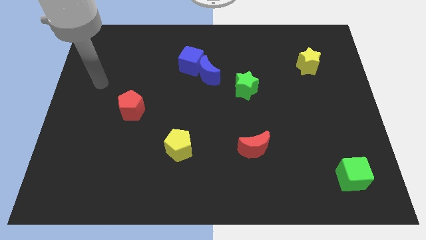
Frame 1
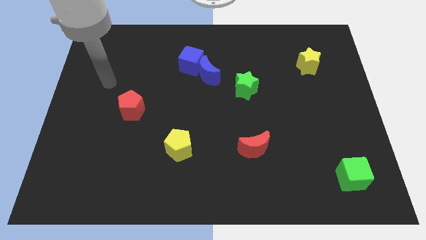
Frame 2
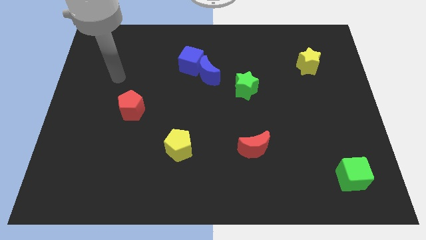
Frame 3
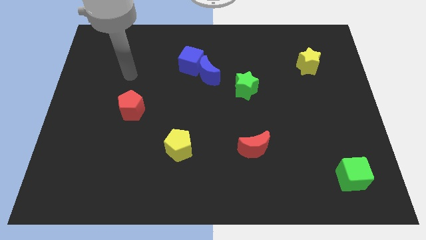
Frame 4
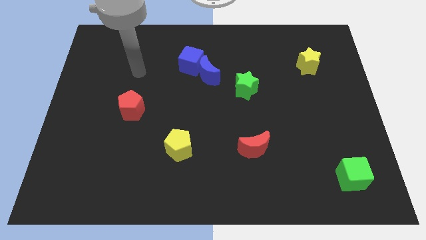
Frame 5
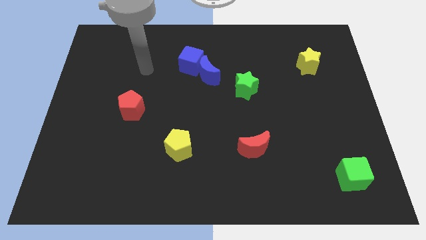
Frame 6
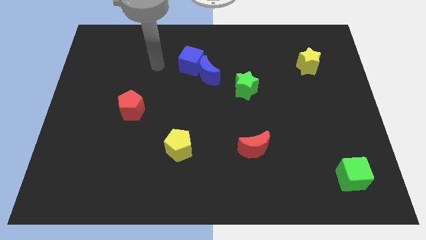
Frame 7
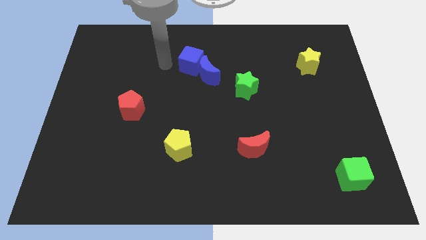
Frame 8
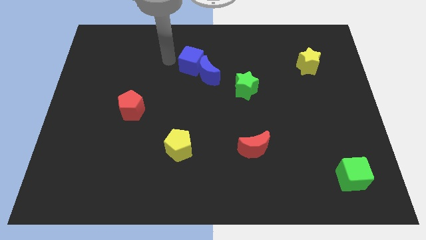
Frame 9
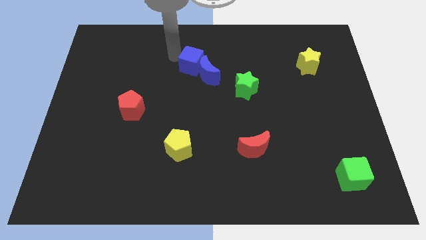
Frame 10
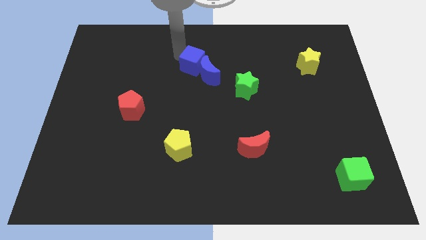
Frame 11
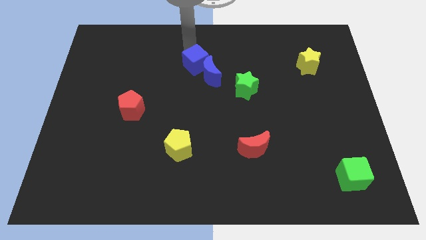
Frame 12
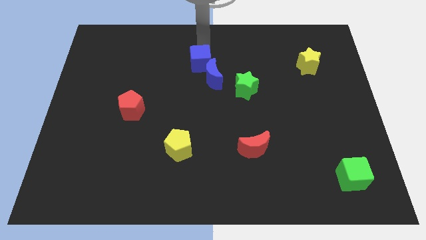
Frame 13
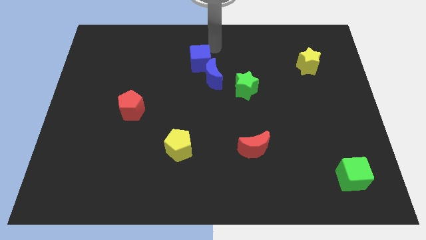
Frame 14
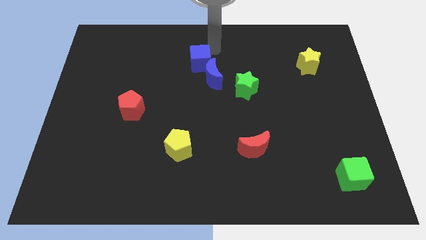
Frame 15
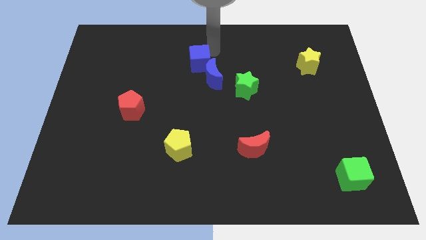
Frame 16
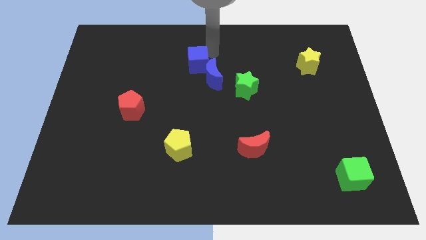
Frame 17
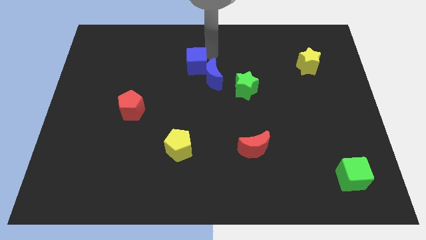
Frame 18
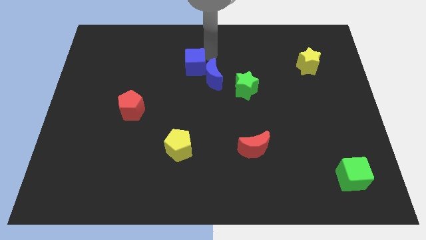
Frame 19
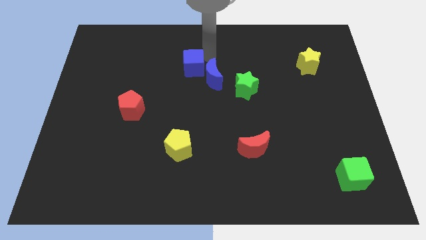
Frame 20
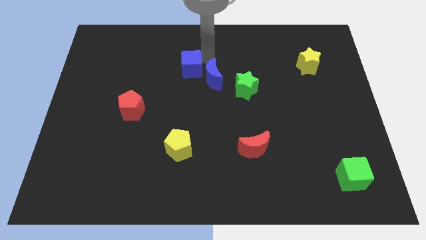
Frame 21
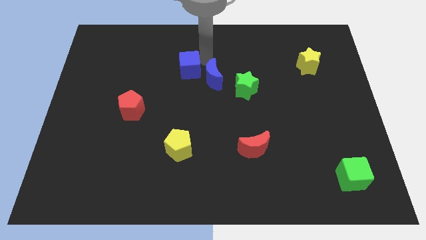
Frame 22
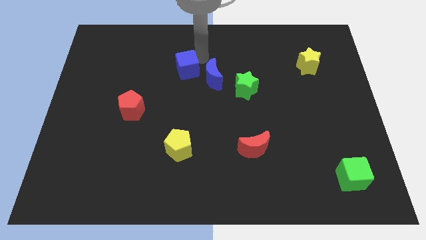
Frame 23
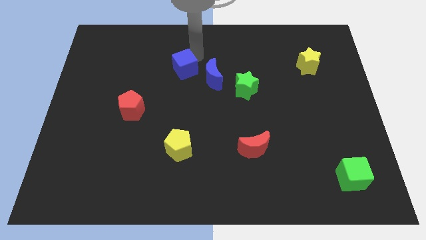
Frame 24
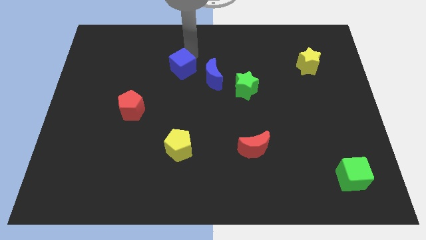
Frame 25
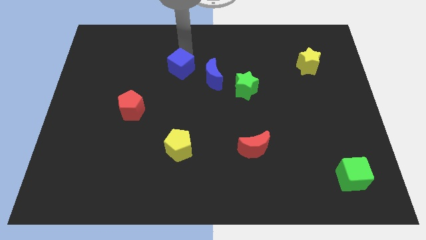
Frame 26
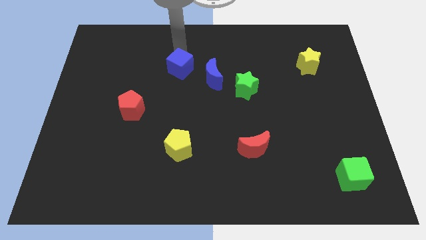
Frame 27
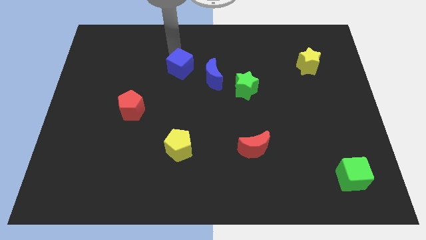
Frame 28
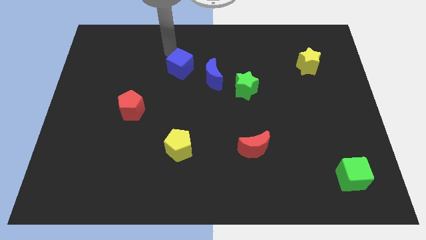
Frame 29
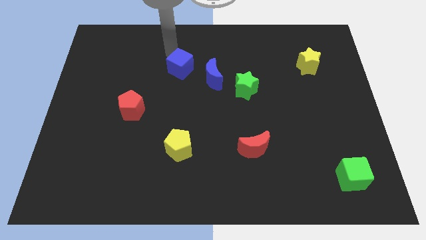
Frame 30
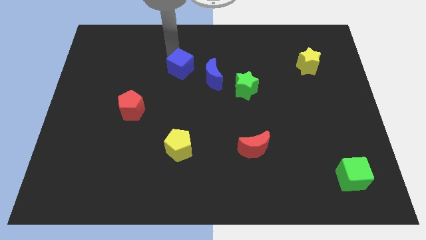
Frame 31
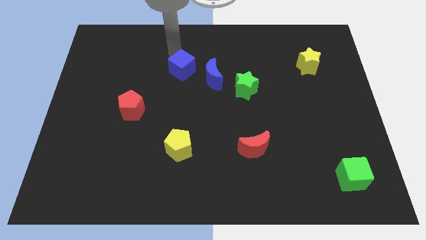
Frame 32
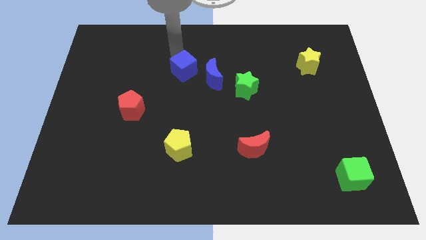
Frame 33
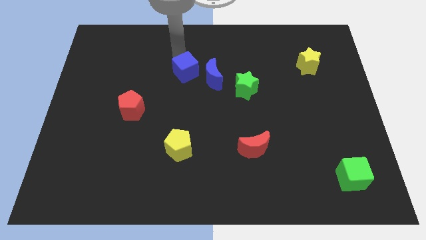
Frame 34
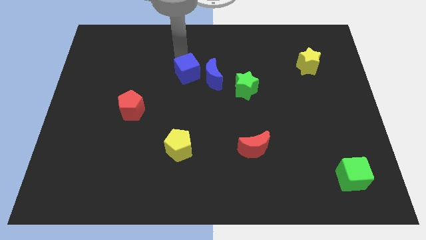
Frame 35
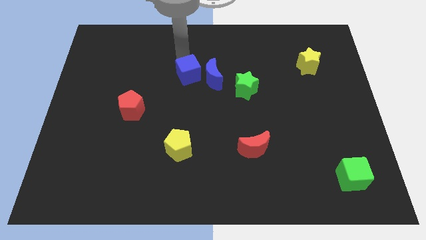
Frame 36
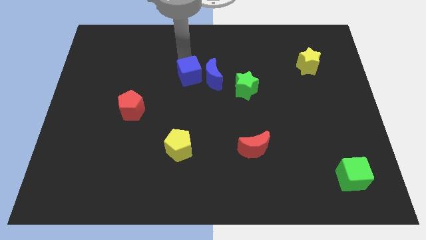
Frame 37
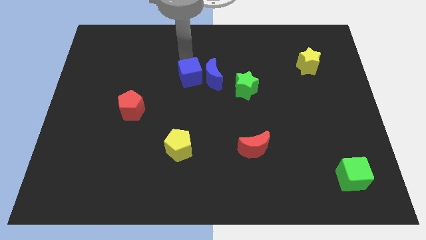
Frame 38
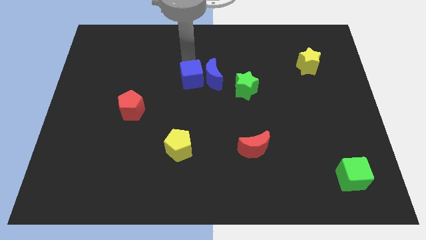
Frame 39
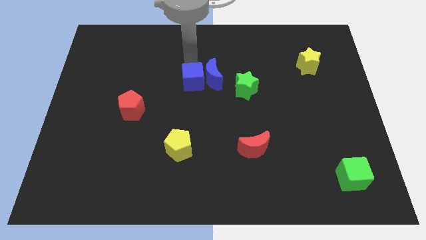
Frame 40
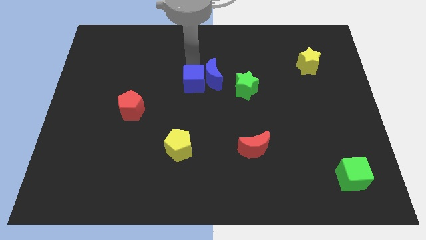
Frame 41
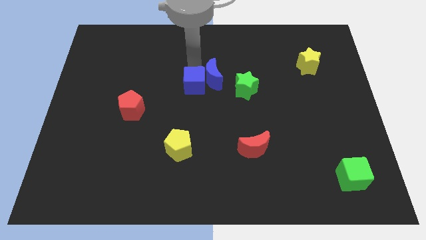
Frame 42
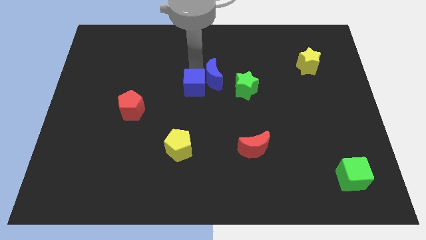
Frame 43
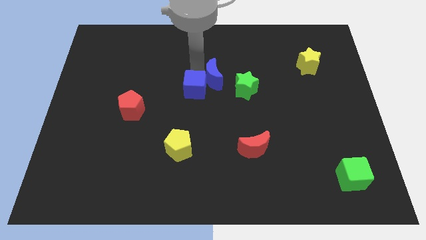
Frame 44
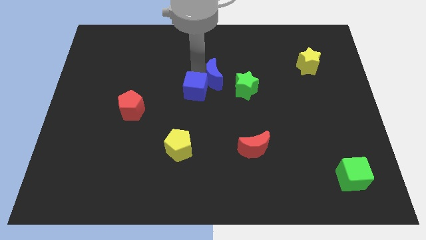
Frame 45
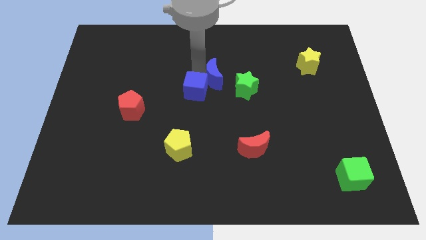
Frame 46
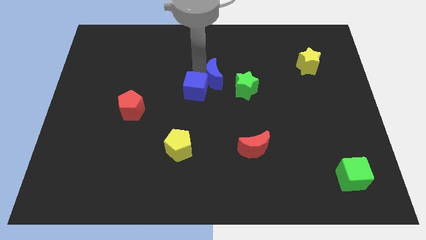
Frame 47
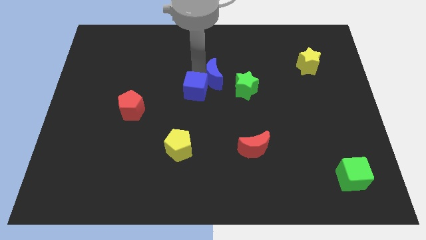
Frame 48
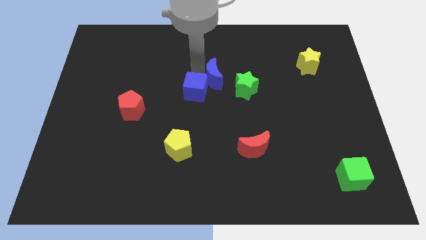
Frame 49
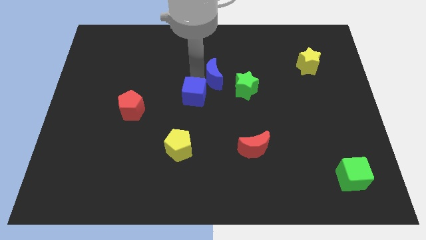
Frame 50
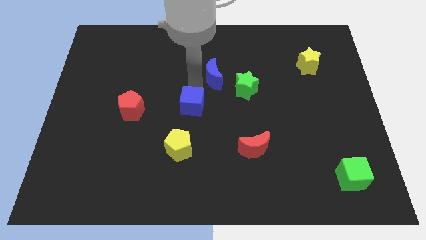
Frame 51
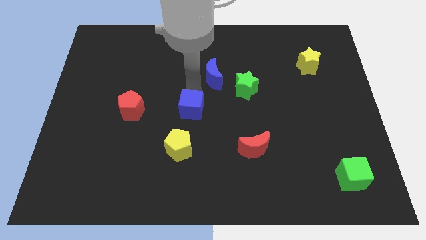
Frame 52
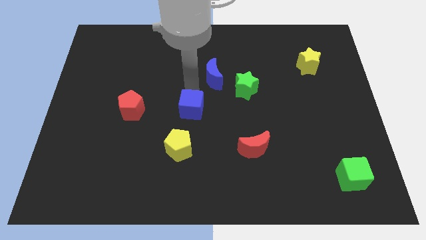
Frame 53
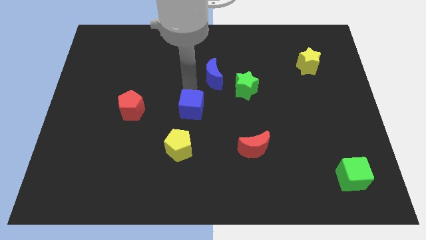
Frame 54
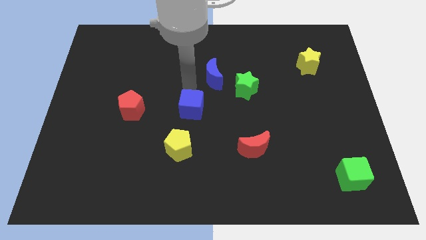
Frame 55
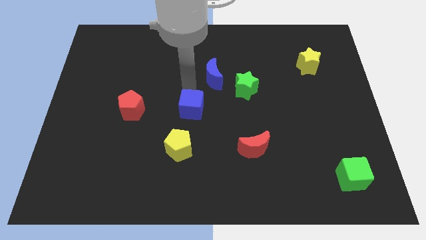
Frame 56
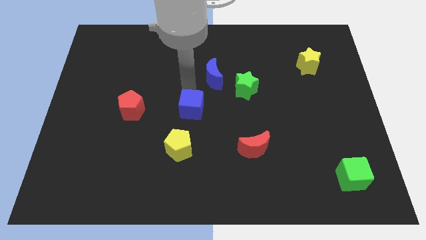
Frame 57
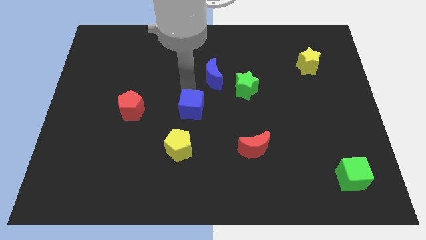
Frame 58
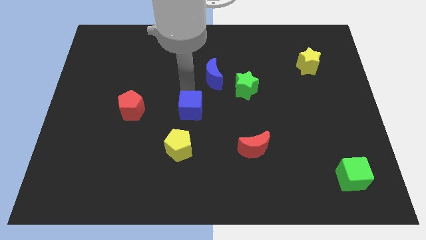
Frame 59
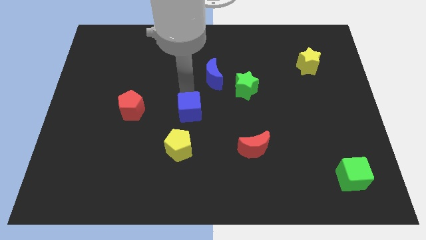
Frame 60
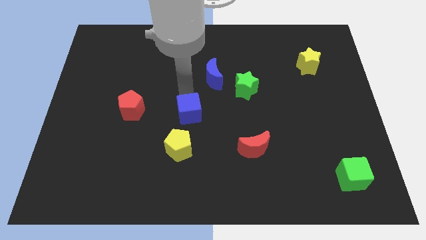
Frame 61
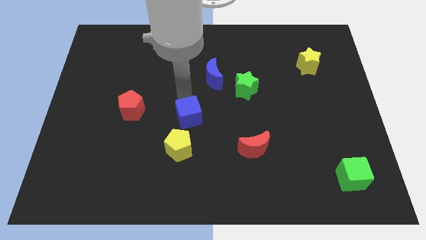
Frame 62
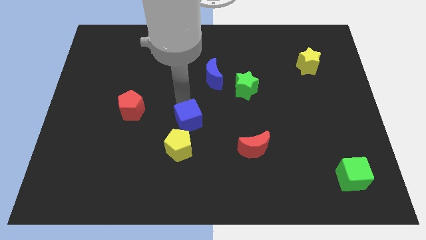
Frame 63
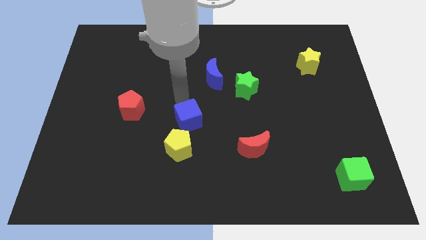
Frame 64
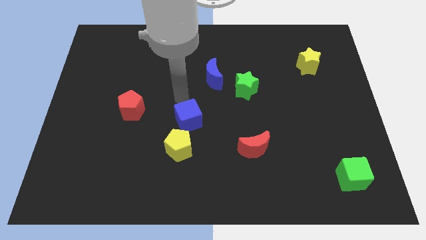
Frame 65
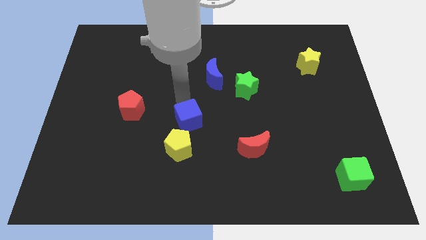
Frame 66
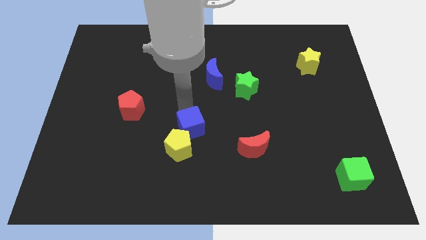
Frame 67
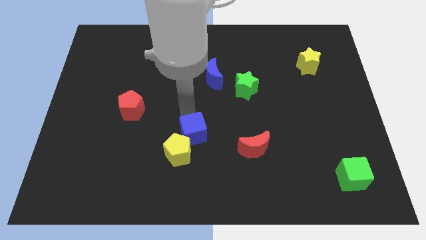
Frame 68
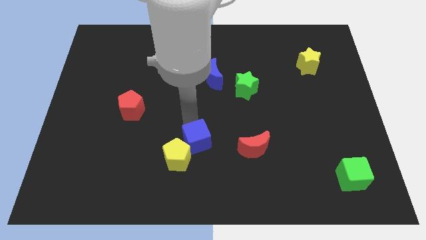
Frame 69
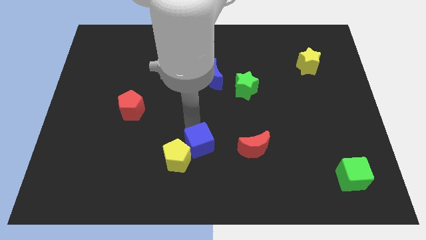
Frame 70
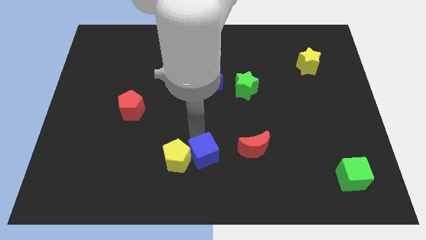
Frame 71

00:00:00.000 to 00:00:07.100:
put the blue cube to the bottom right of the yellow pentagon

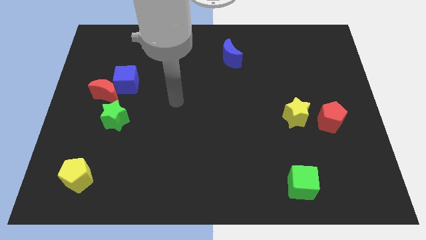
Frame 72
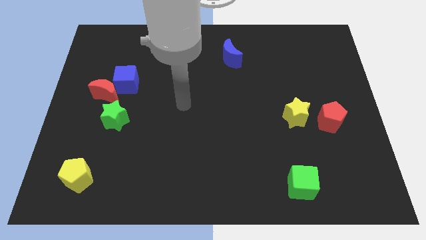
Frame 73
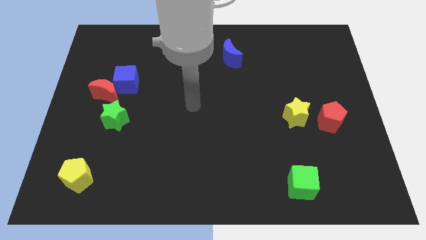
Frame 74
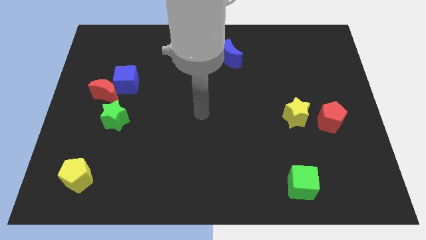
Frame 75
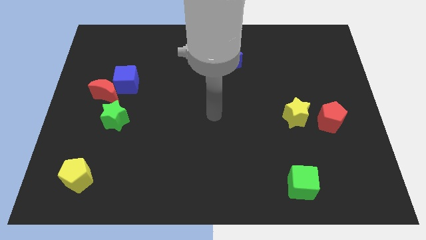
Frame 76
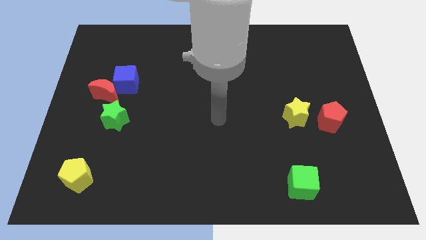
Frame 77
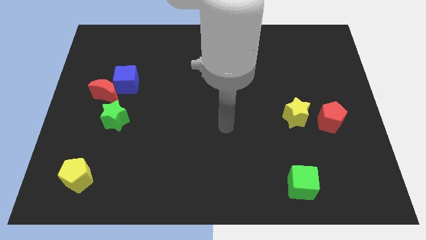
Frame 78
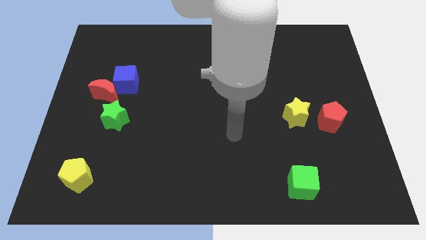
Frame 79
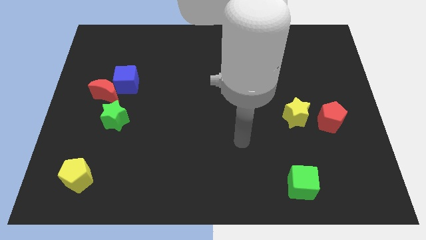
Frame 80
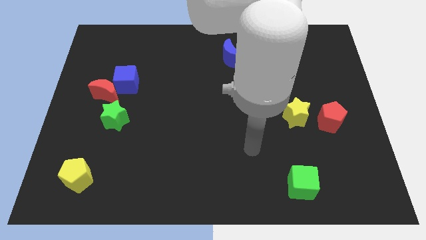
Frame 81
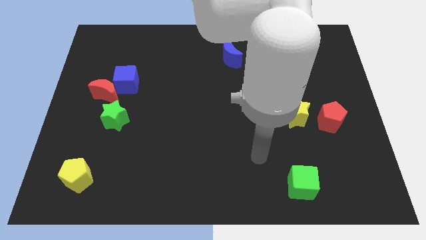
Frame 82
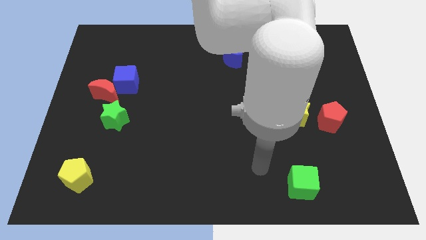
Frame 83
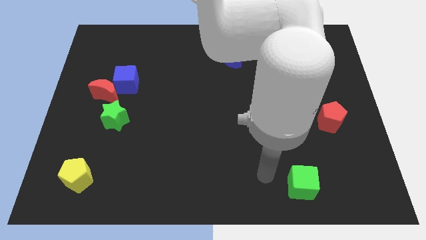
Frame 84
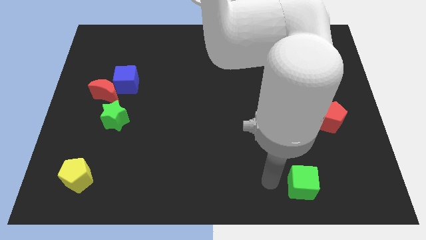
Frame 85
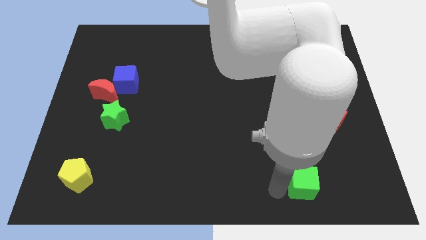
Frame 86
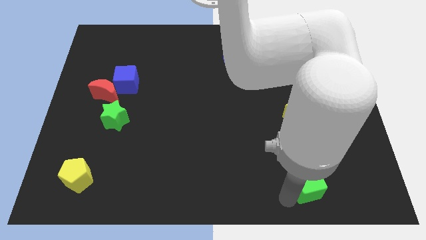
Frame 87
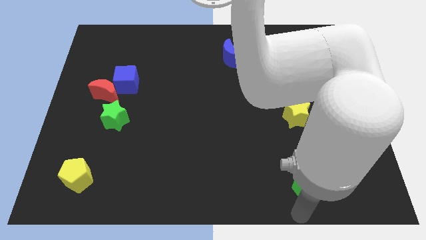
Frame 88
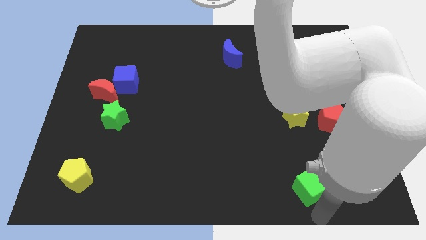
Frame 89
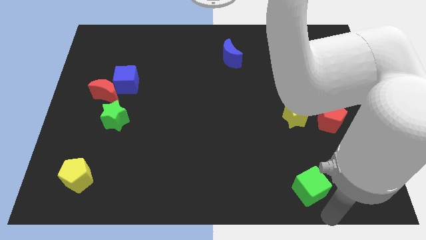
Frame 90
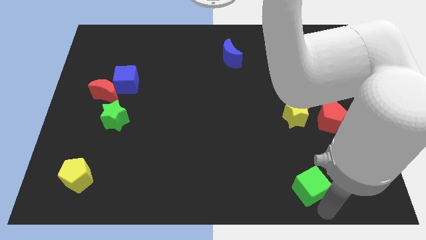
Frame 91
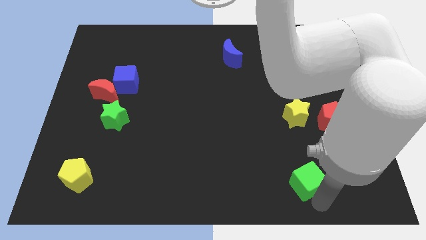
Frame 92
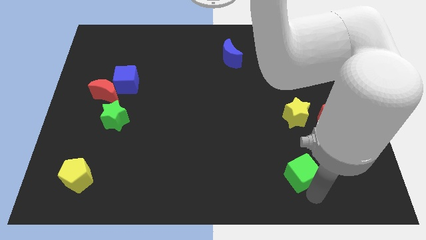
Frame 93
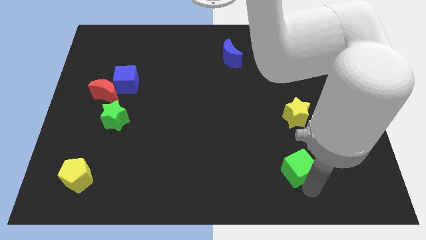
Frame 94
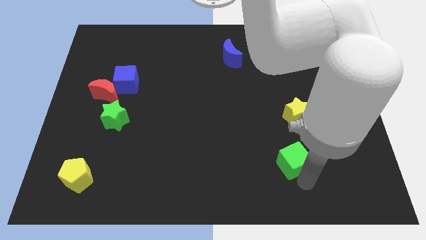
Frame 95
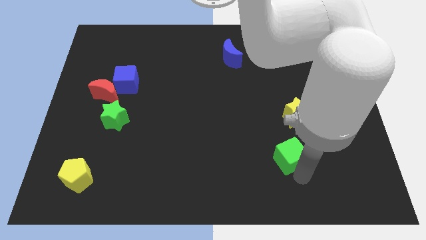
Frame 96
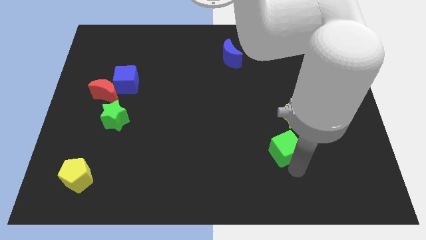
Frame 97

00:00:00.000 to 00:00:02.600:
move the green cube diagonally down and to the left of the yellow star
